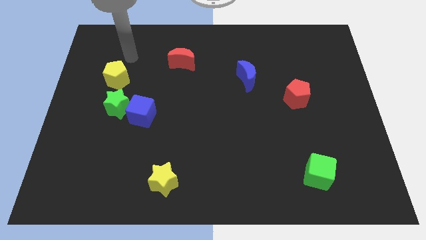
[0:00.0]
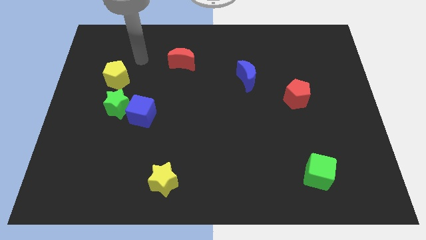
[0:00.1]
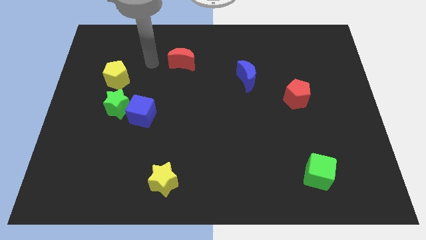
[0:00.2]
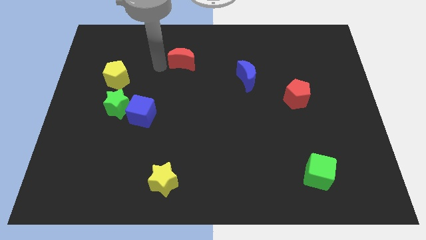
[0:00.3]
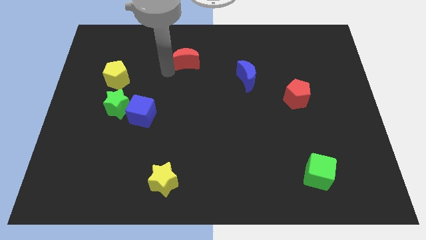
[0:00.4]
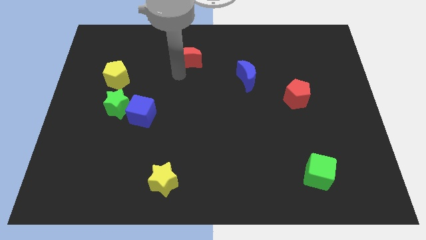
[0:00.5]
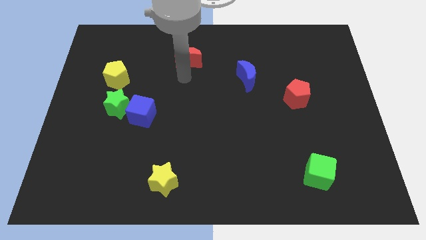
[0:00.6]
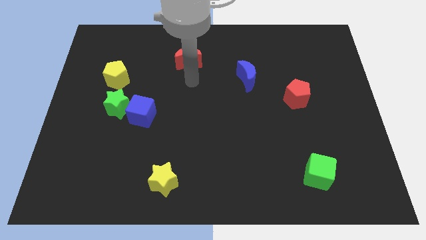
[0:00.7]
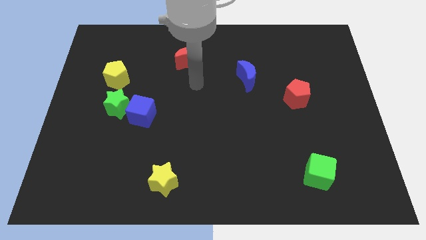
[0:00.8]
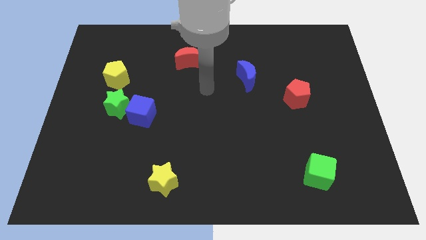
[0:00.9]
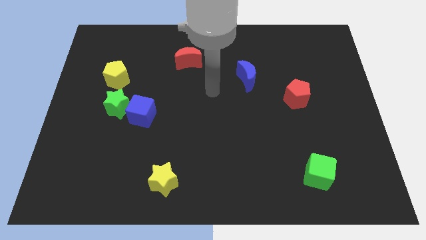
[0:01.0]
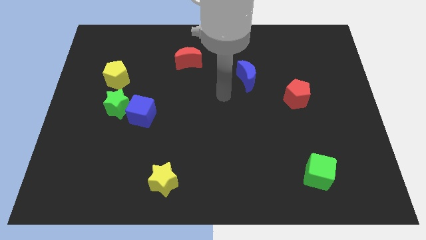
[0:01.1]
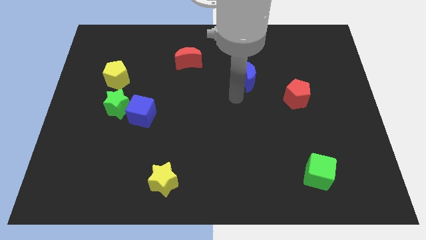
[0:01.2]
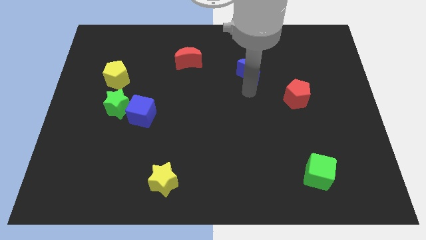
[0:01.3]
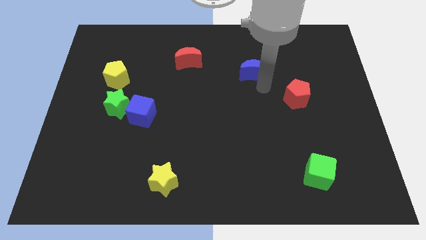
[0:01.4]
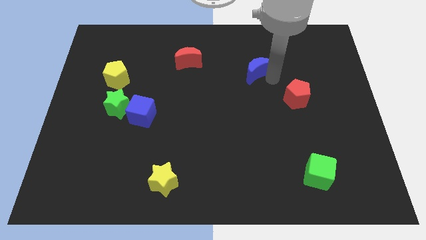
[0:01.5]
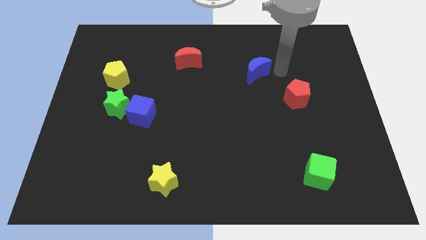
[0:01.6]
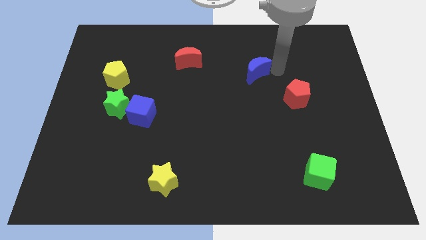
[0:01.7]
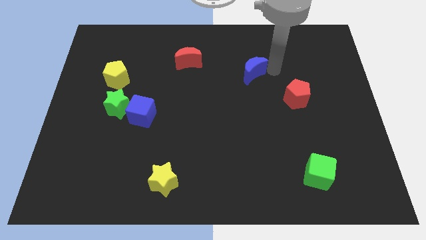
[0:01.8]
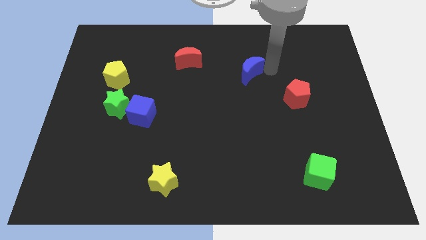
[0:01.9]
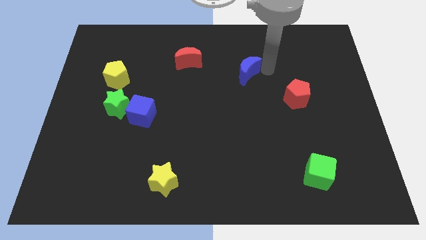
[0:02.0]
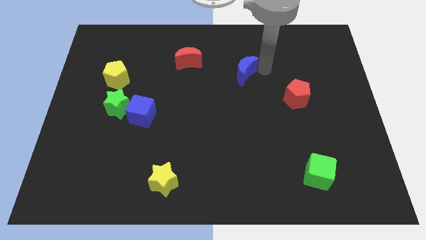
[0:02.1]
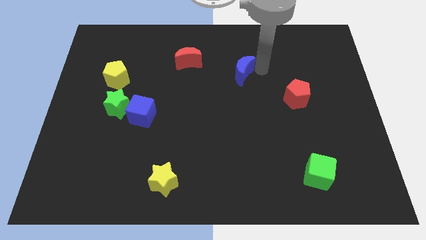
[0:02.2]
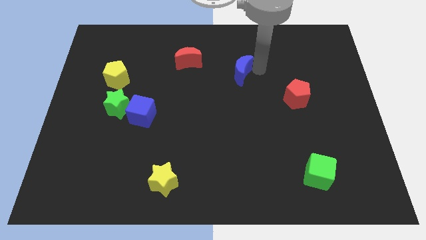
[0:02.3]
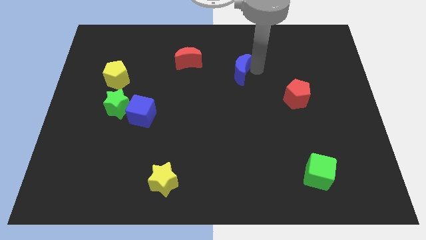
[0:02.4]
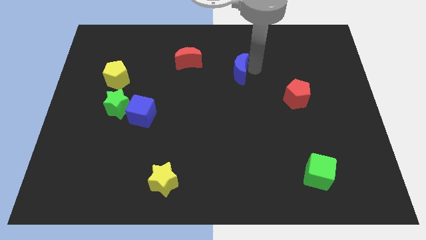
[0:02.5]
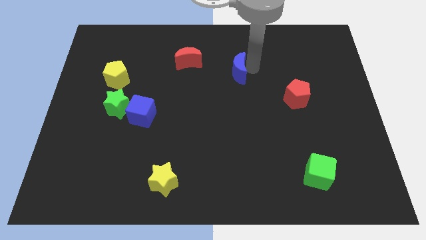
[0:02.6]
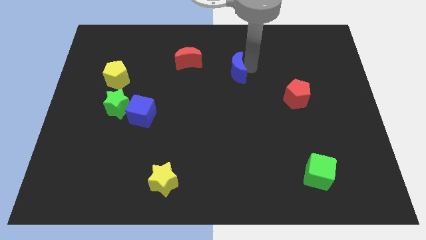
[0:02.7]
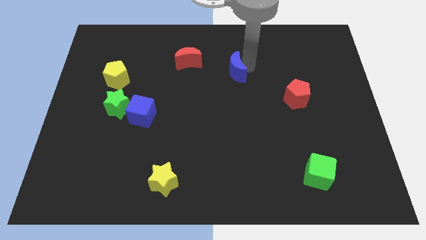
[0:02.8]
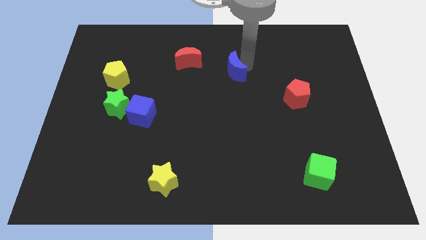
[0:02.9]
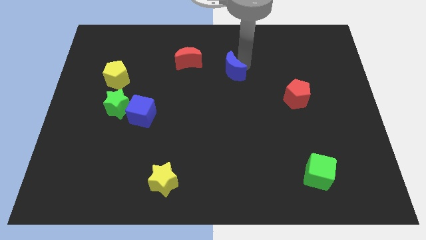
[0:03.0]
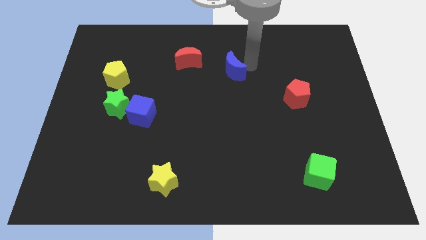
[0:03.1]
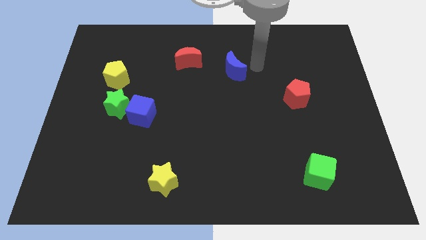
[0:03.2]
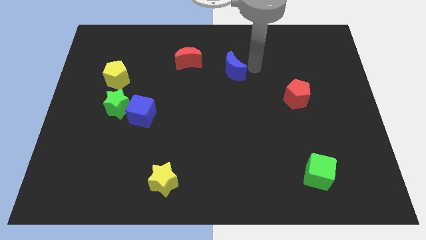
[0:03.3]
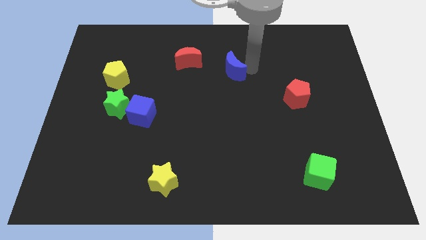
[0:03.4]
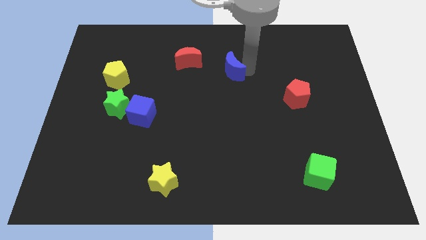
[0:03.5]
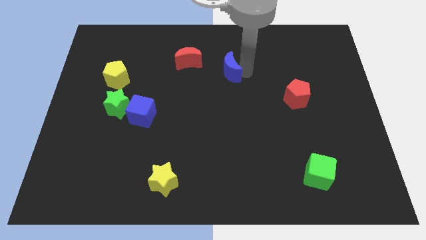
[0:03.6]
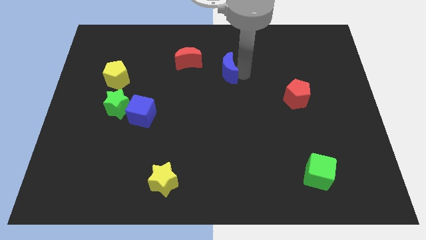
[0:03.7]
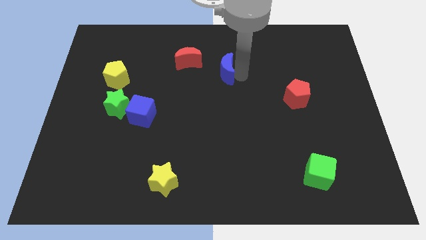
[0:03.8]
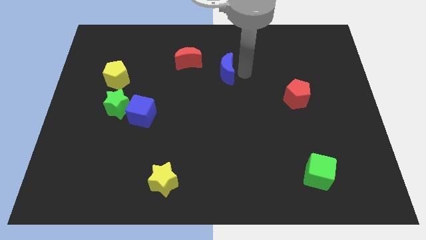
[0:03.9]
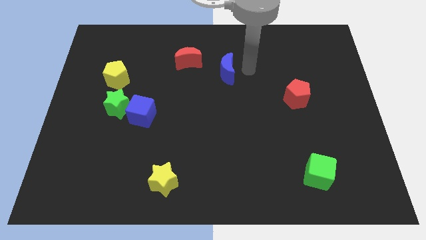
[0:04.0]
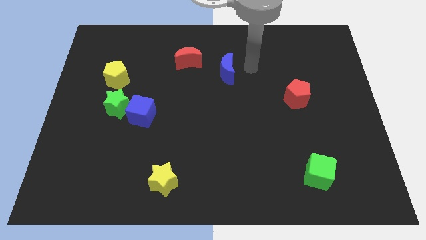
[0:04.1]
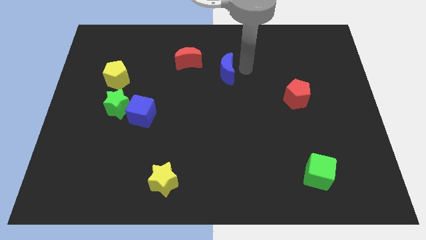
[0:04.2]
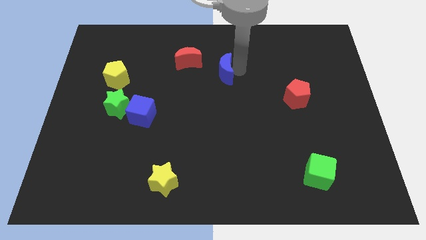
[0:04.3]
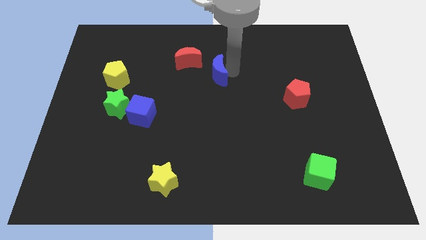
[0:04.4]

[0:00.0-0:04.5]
slightly push the blue moon to the left

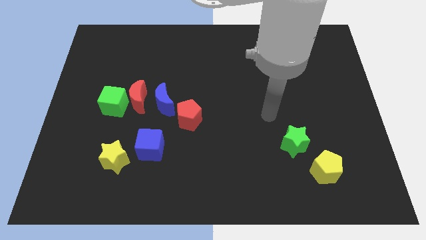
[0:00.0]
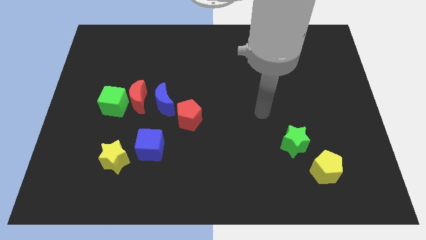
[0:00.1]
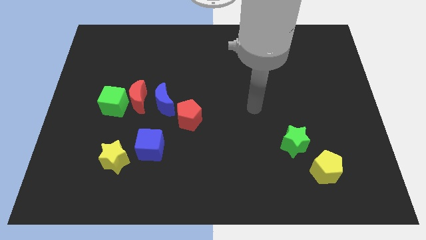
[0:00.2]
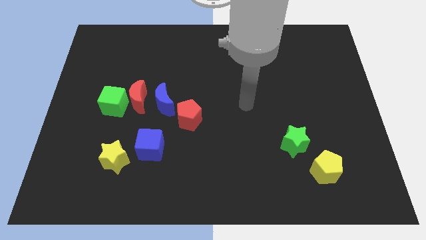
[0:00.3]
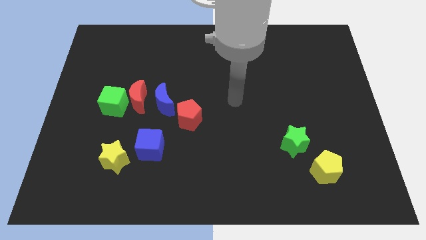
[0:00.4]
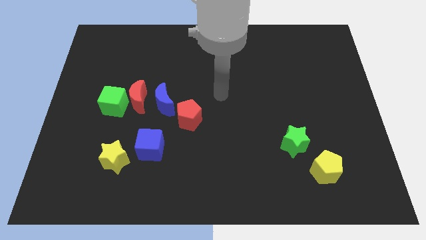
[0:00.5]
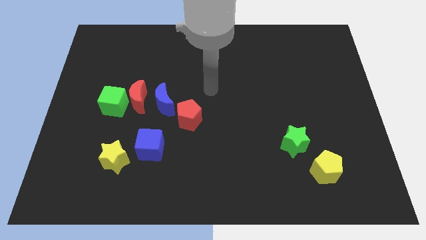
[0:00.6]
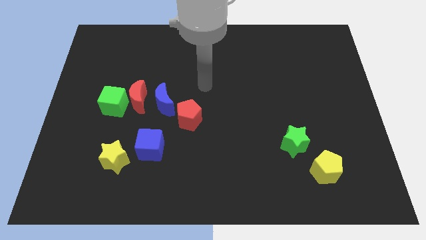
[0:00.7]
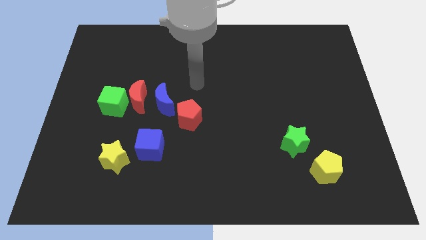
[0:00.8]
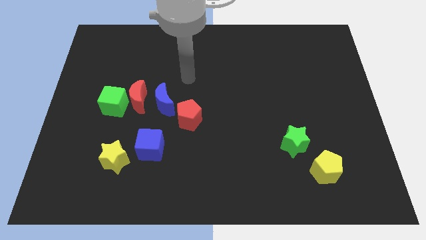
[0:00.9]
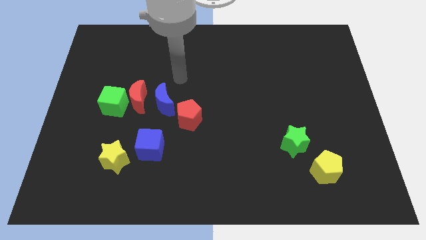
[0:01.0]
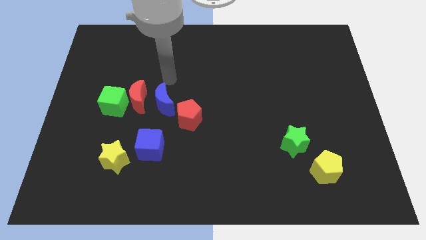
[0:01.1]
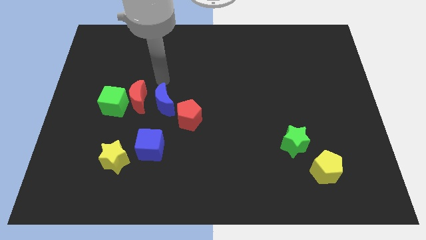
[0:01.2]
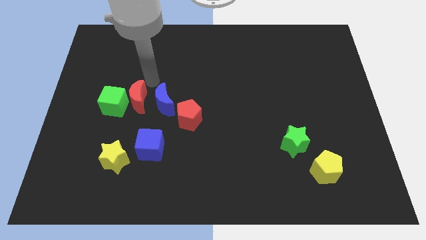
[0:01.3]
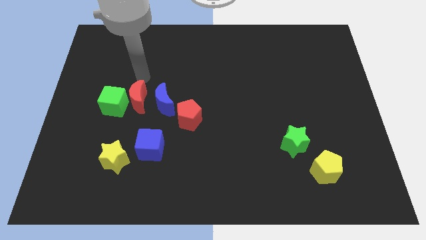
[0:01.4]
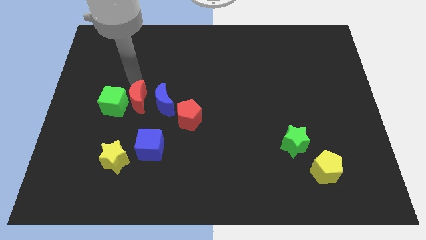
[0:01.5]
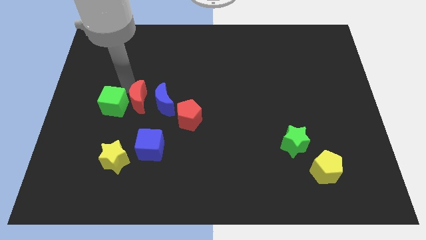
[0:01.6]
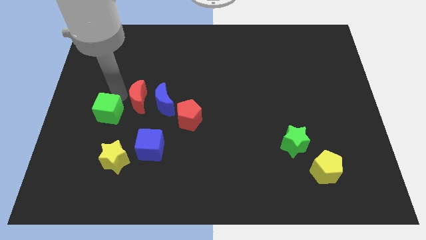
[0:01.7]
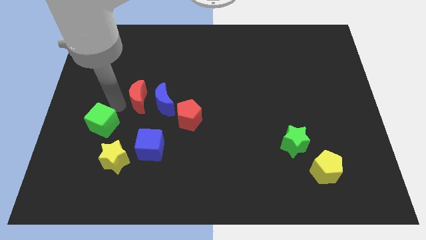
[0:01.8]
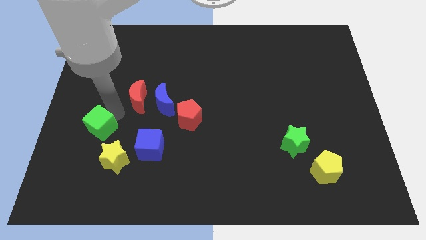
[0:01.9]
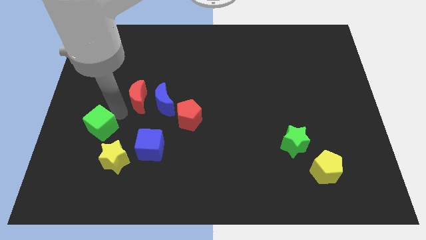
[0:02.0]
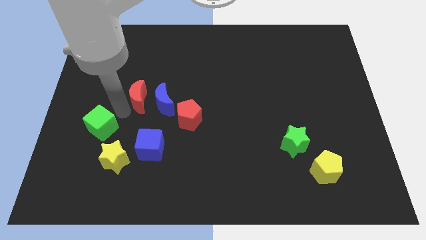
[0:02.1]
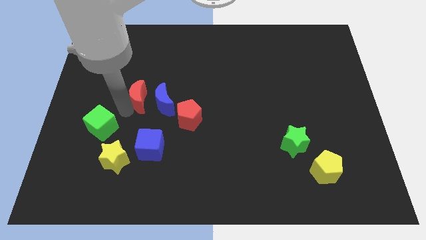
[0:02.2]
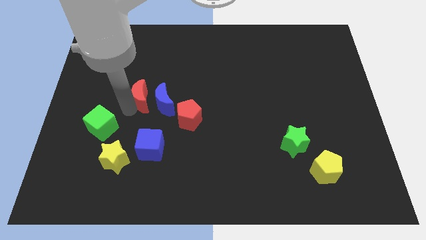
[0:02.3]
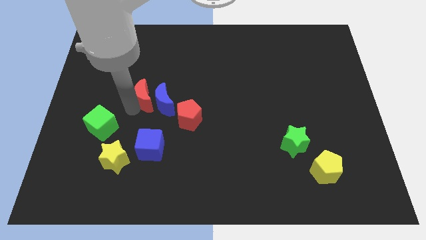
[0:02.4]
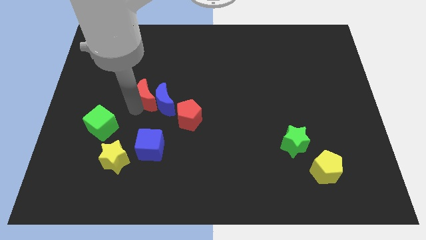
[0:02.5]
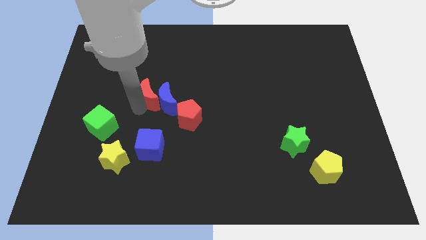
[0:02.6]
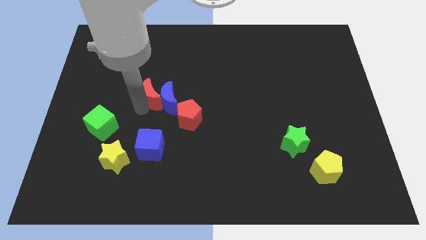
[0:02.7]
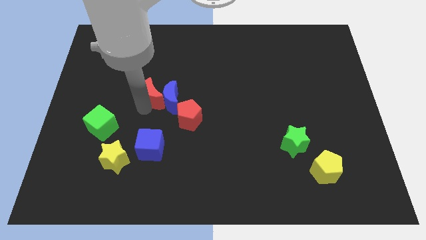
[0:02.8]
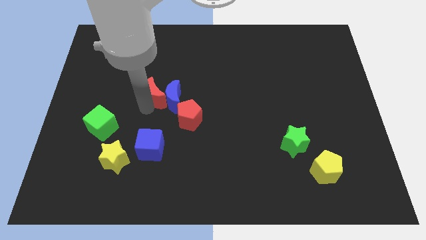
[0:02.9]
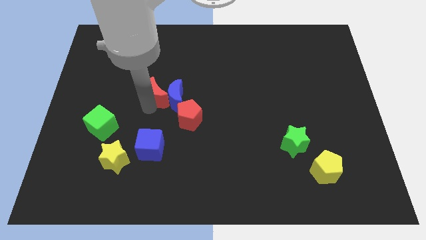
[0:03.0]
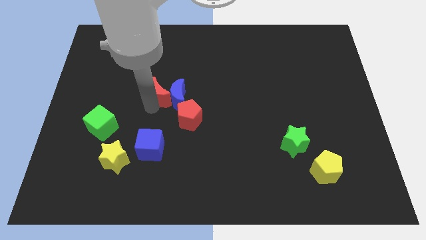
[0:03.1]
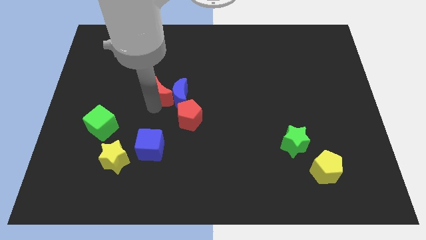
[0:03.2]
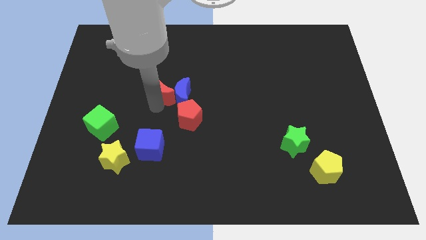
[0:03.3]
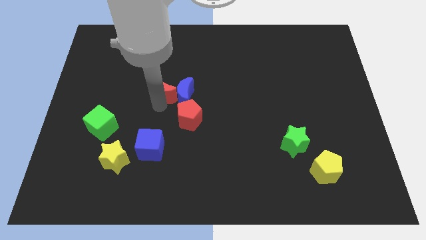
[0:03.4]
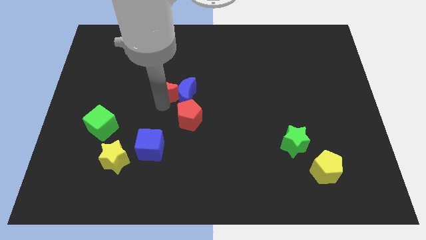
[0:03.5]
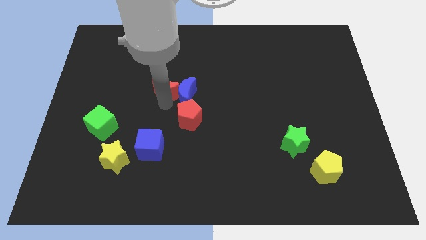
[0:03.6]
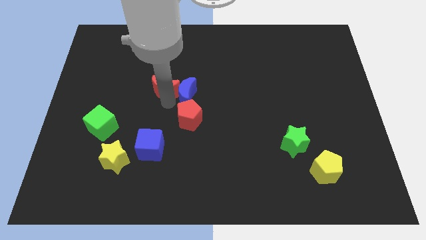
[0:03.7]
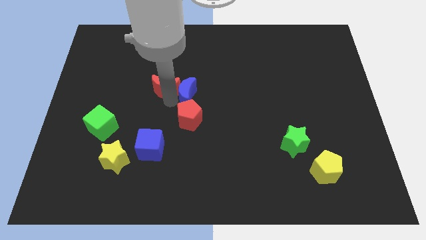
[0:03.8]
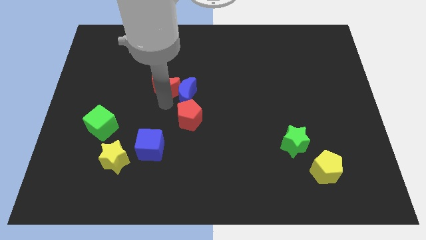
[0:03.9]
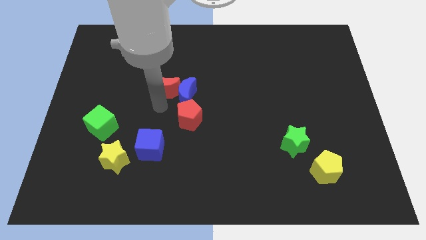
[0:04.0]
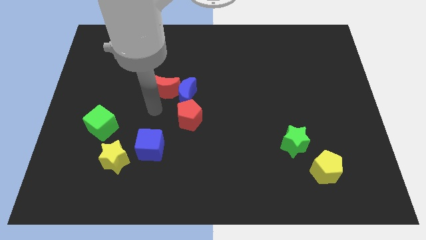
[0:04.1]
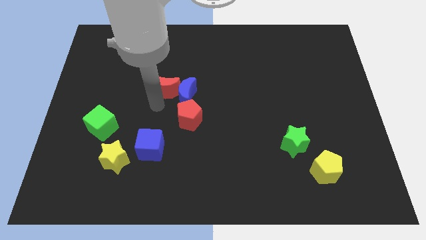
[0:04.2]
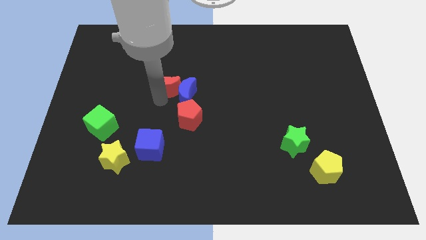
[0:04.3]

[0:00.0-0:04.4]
slightly slide the red moon upwards and then to the right
